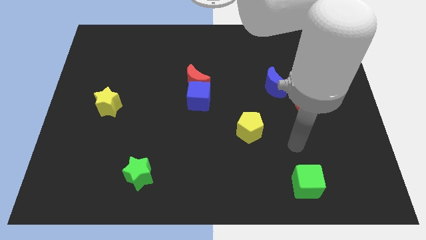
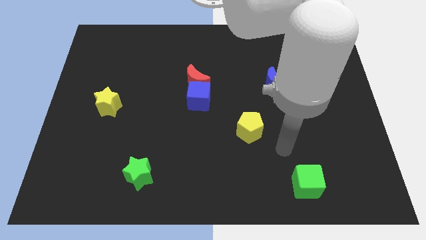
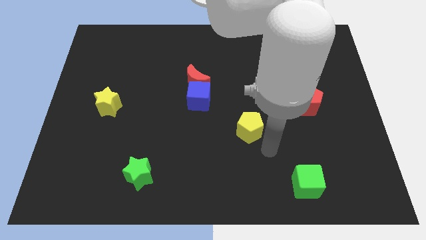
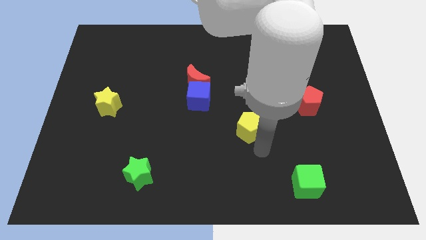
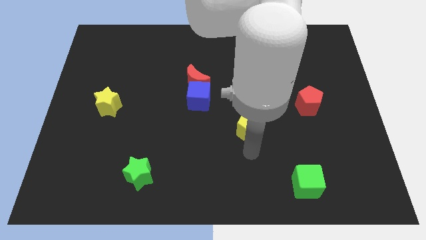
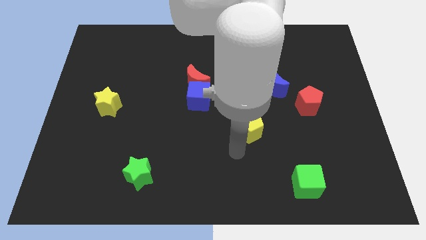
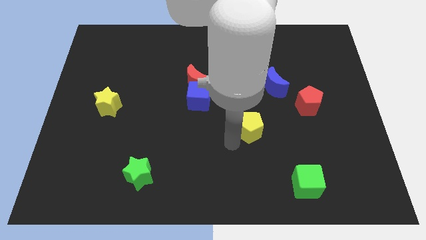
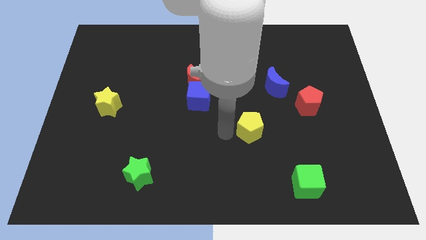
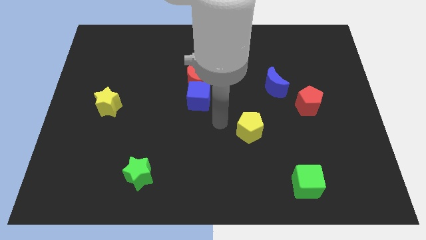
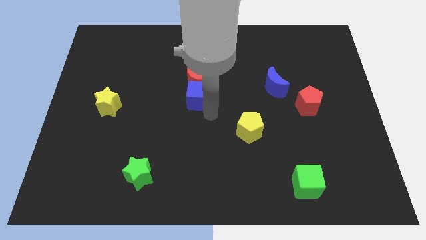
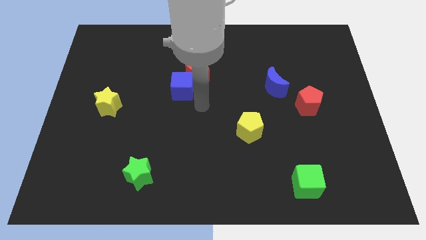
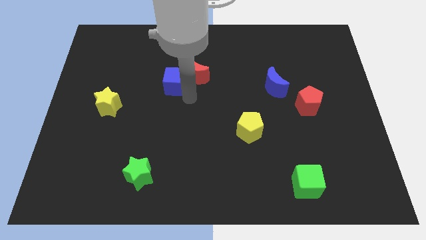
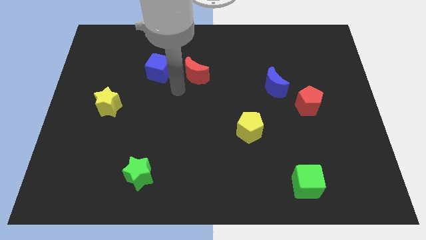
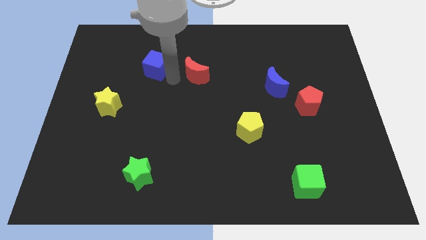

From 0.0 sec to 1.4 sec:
move the red moon away from the blue cube

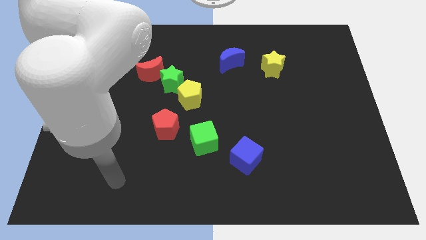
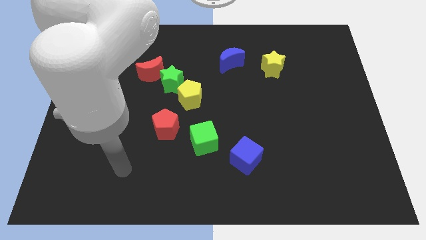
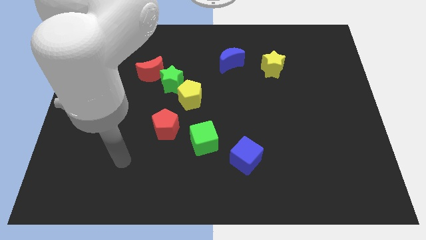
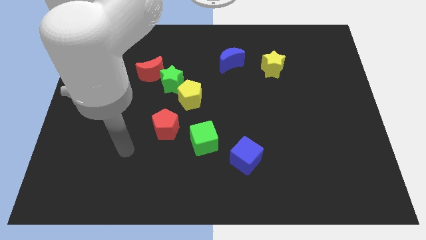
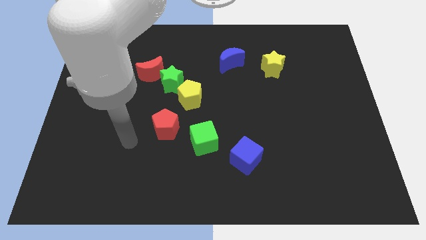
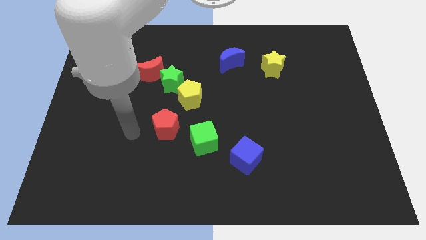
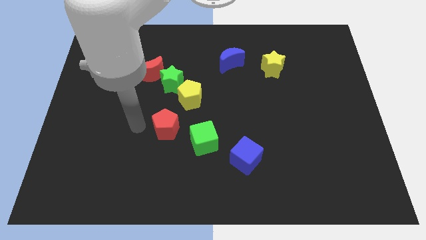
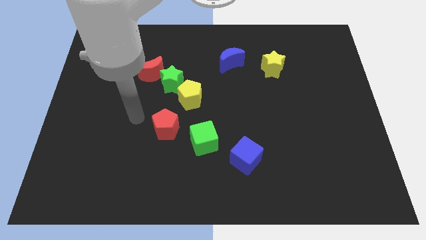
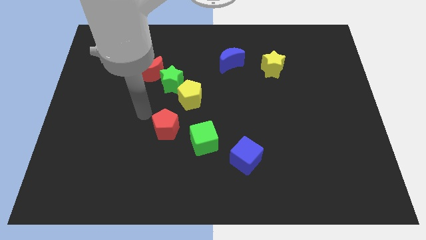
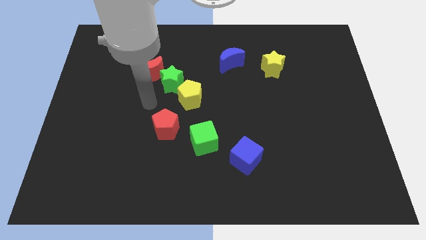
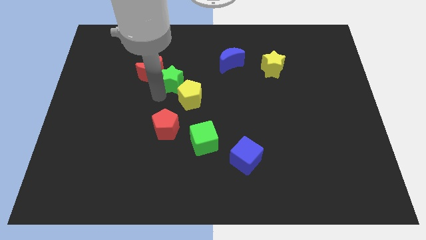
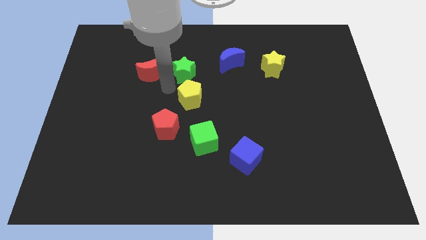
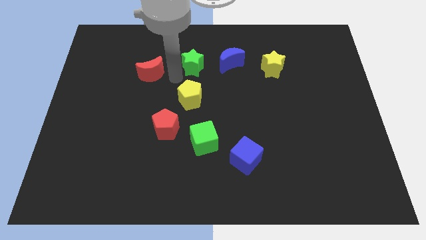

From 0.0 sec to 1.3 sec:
separate the red moon from the green star

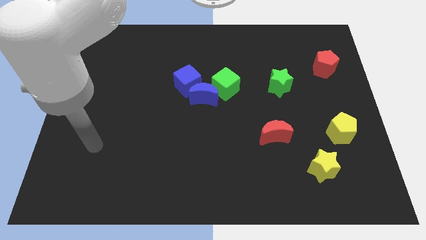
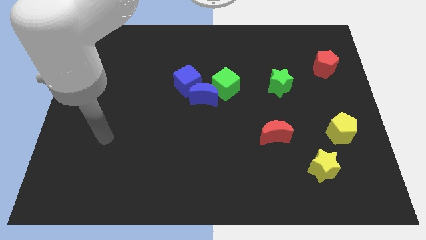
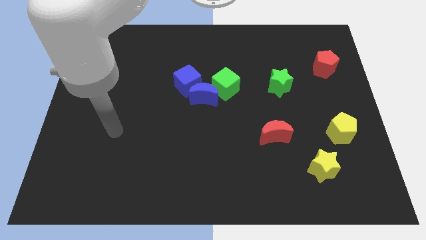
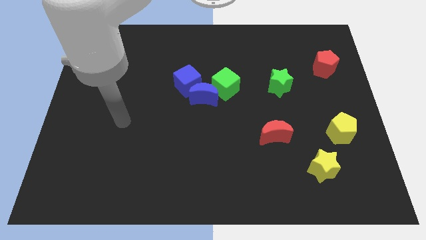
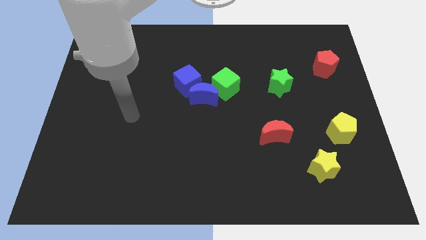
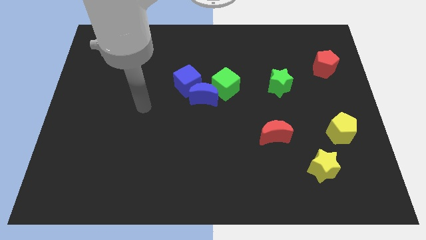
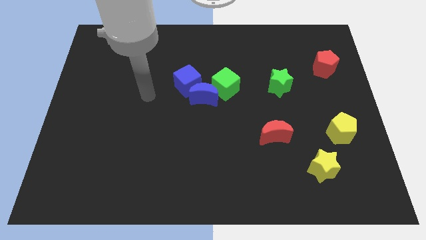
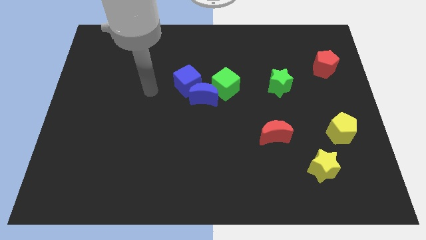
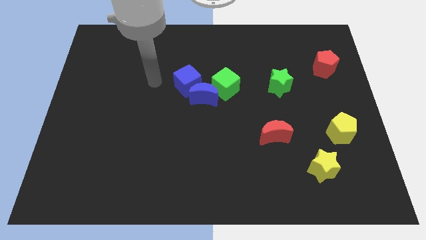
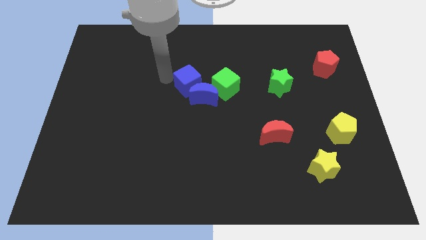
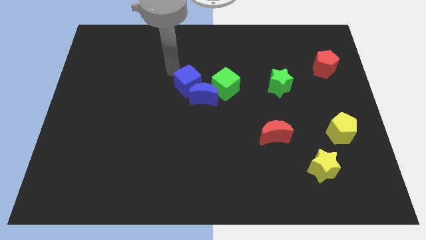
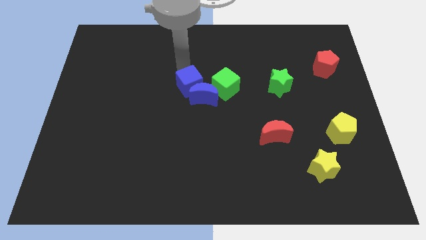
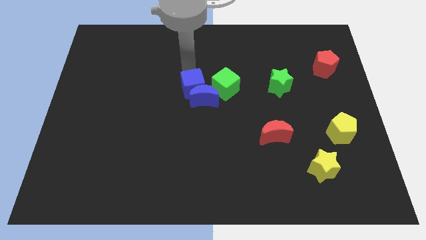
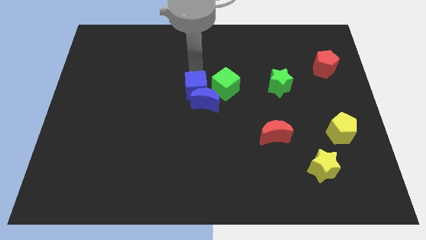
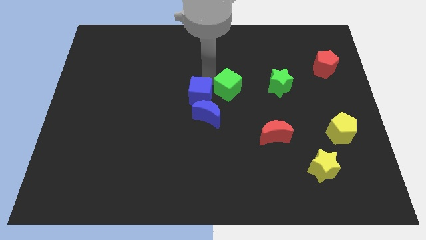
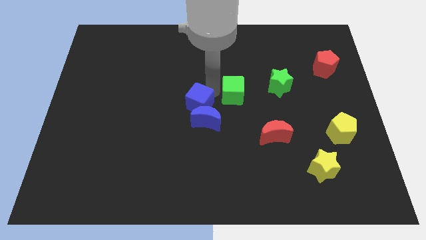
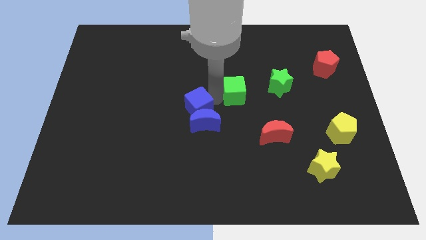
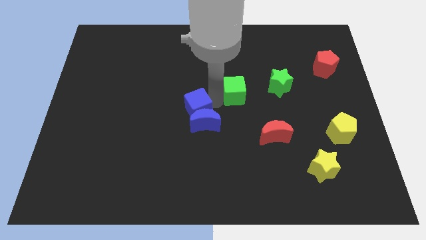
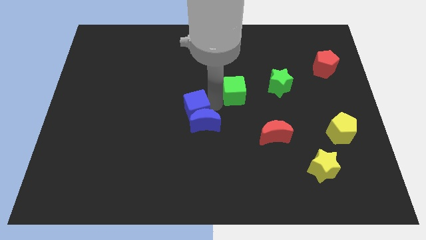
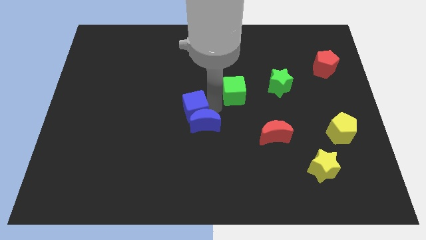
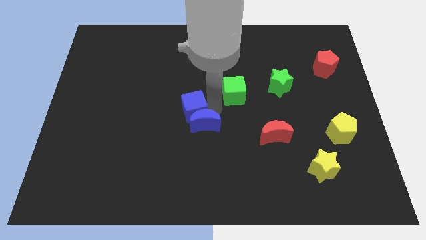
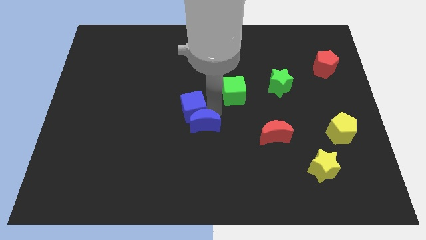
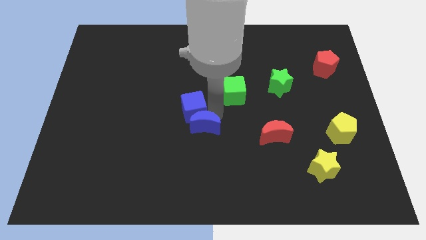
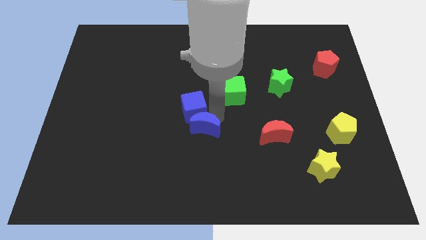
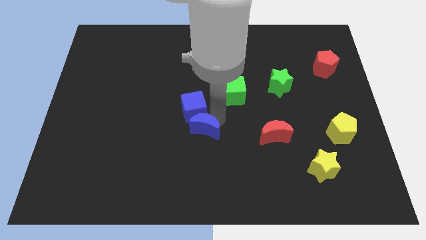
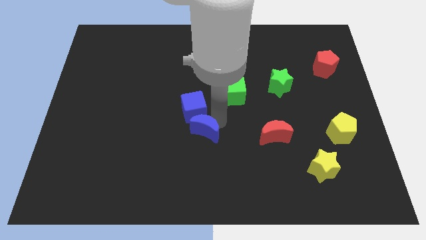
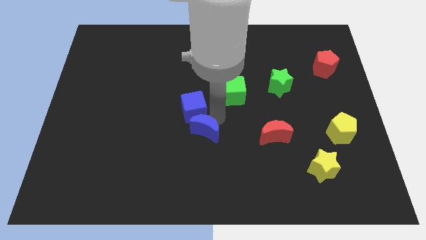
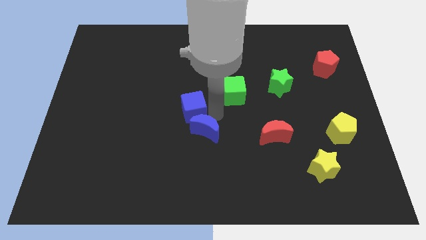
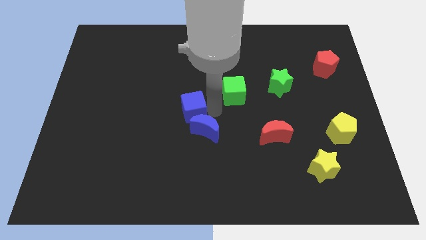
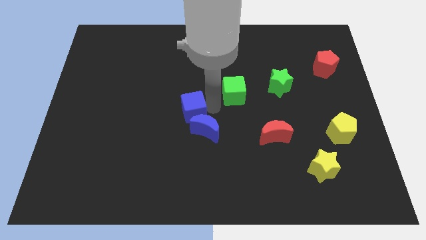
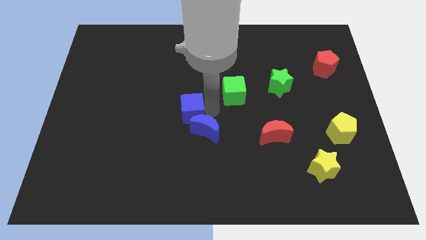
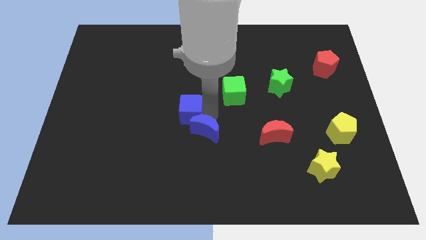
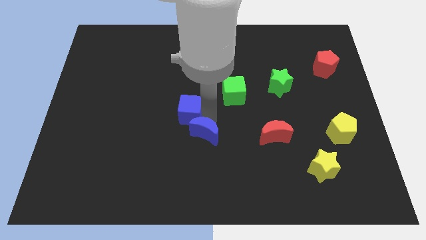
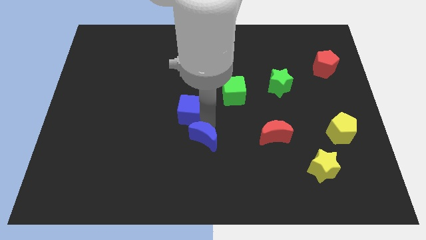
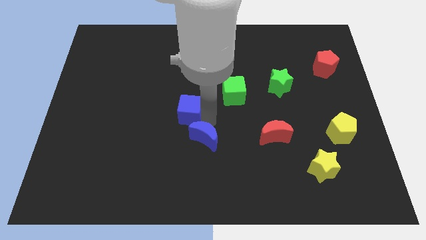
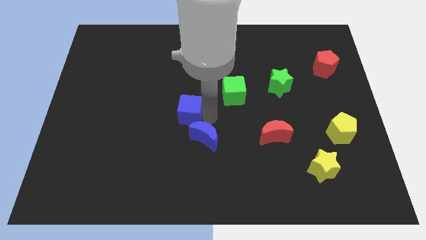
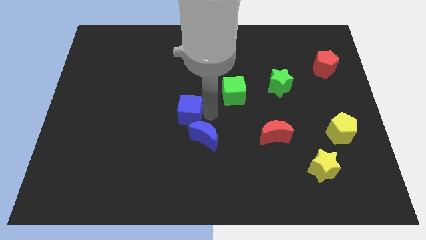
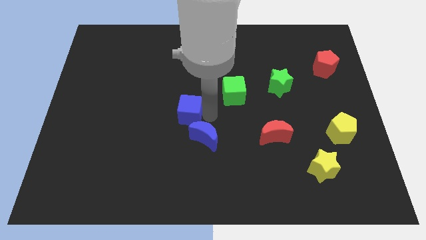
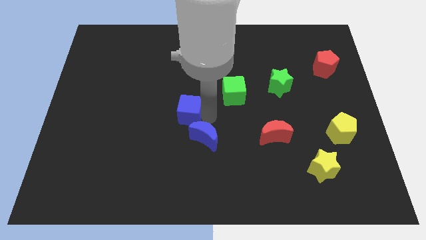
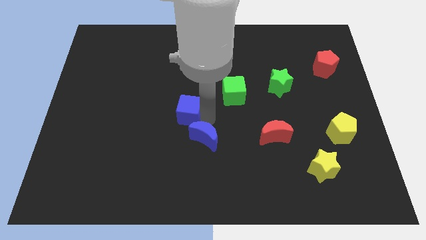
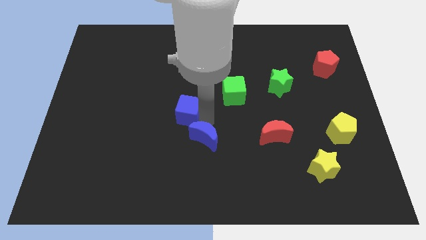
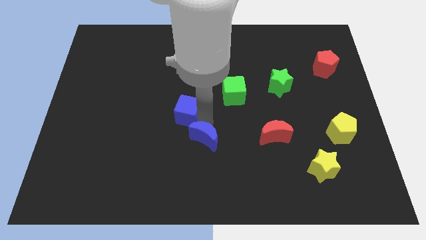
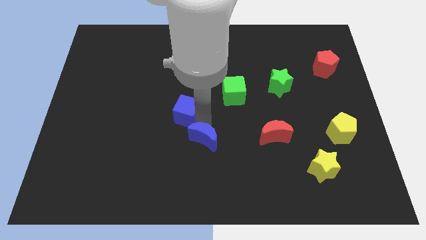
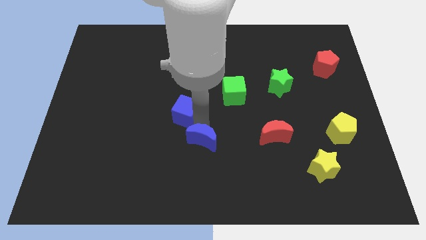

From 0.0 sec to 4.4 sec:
move the blue moon away from the blue cube and green cube

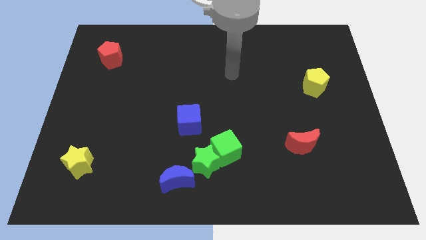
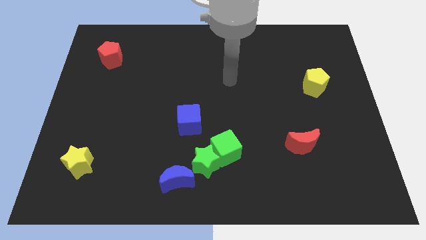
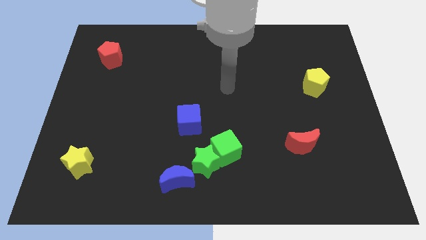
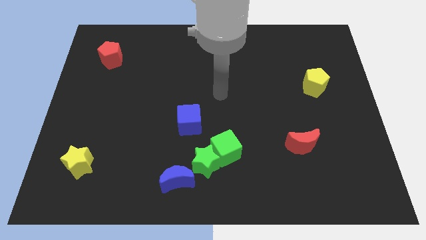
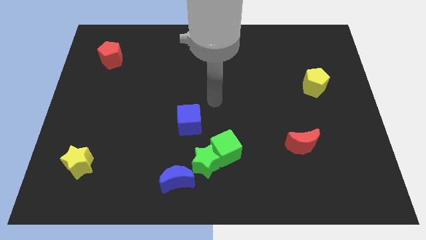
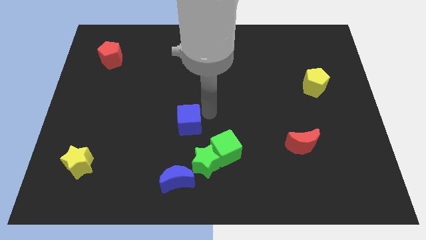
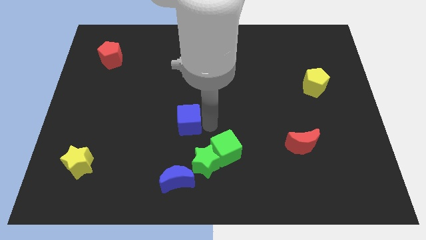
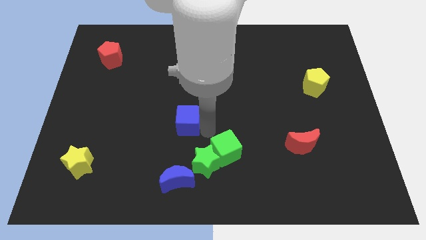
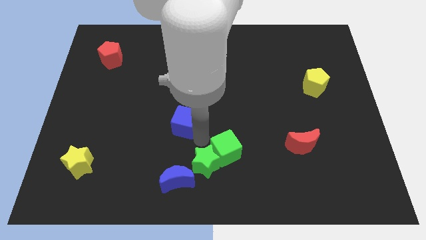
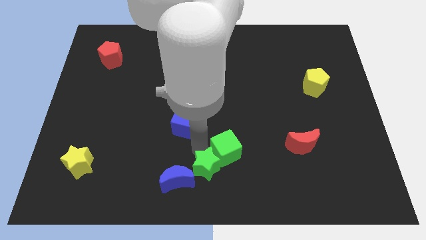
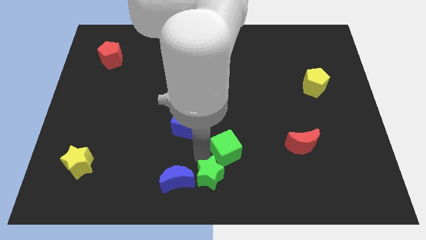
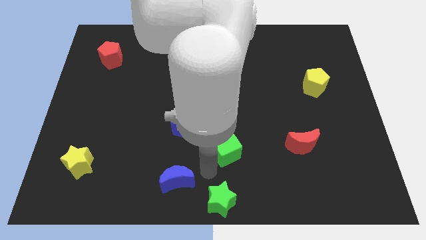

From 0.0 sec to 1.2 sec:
pull the green cube apart from the green star

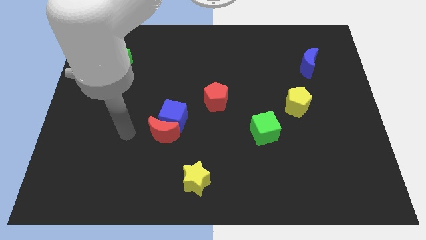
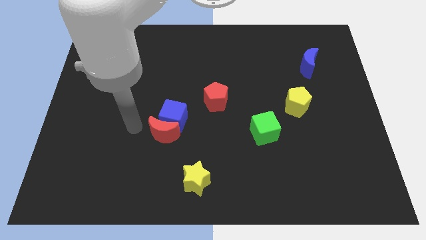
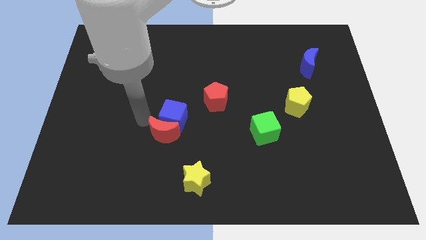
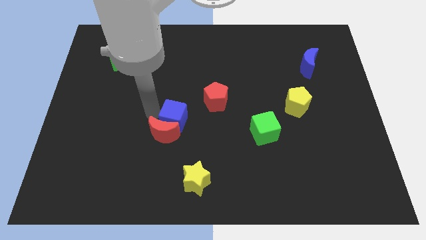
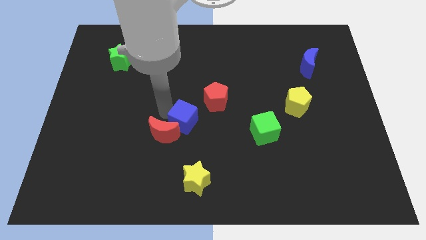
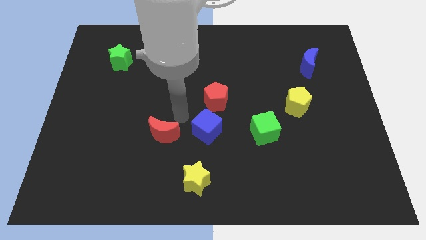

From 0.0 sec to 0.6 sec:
pull the red moon apart from the blue cube

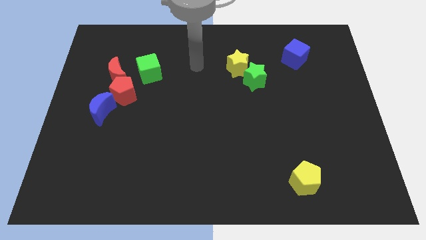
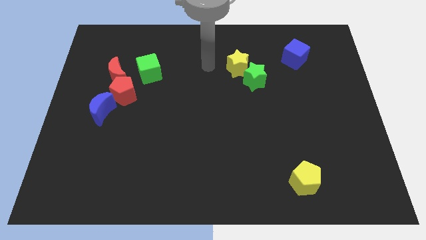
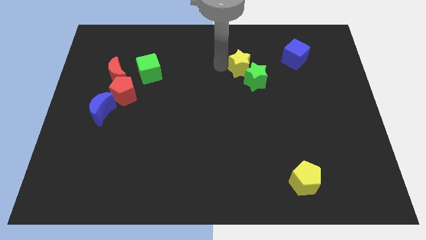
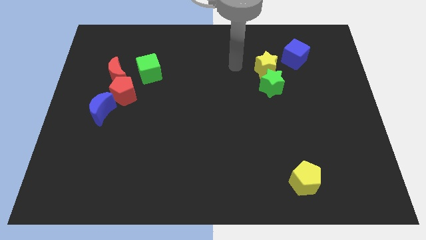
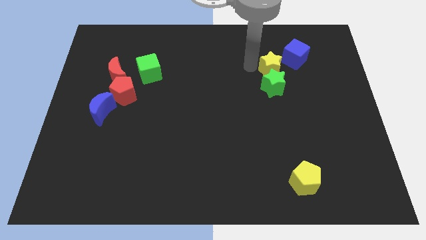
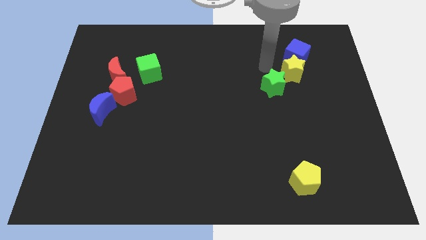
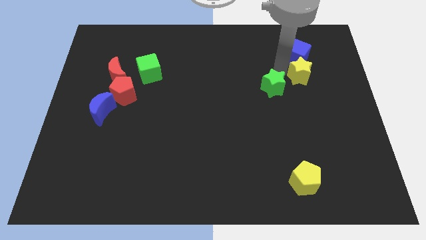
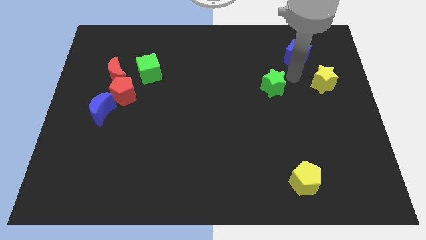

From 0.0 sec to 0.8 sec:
separate the green star from the yellow star
